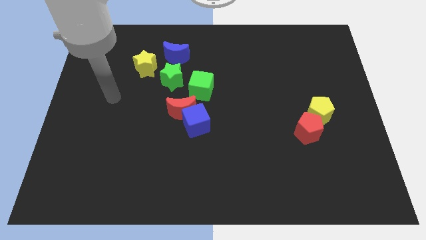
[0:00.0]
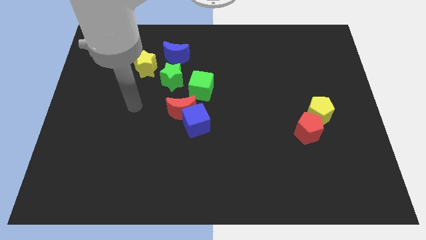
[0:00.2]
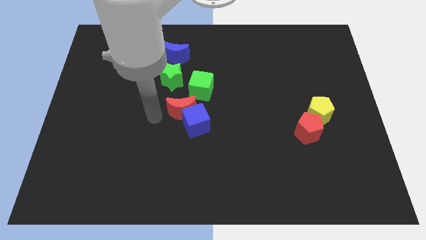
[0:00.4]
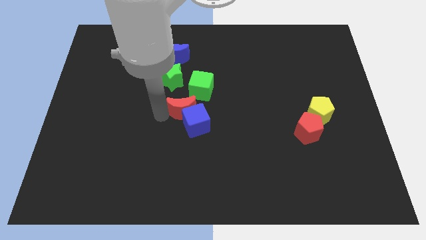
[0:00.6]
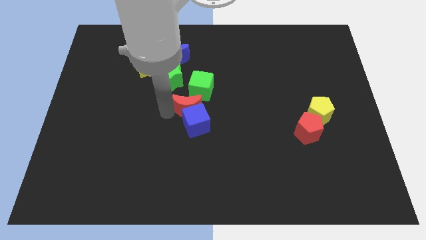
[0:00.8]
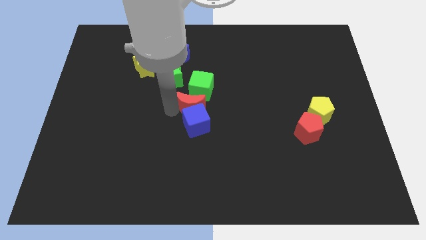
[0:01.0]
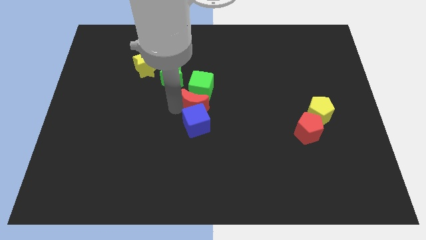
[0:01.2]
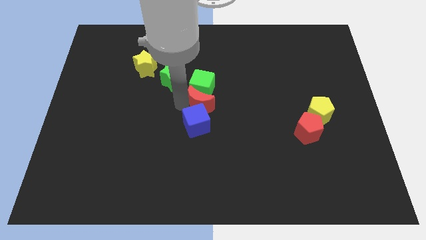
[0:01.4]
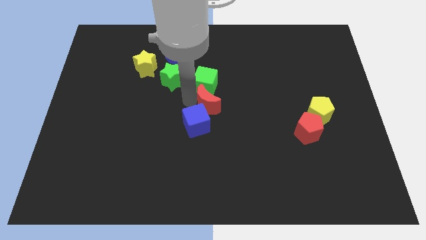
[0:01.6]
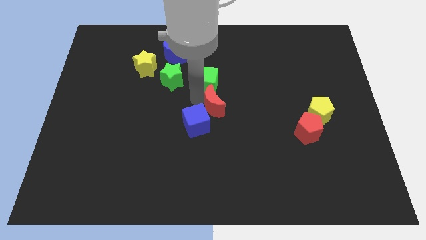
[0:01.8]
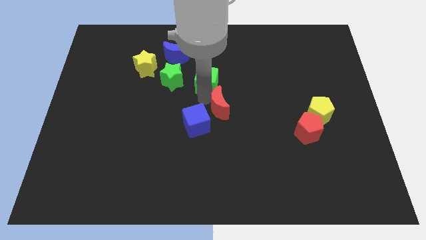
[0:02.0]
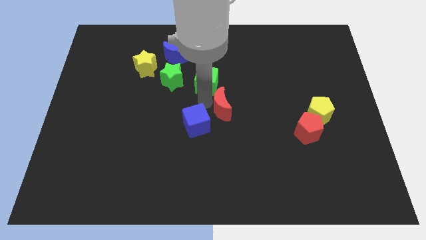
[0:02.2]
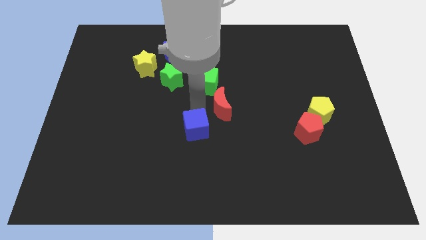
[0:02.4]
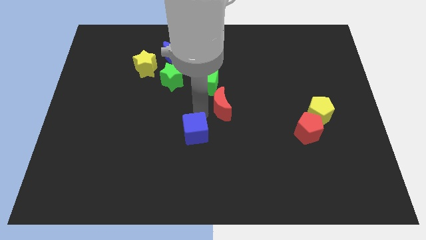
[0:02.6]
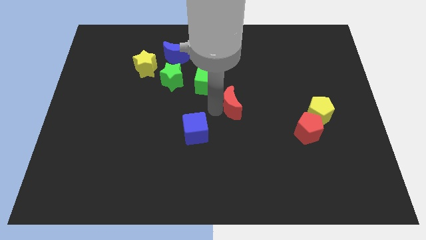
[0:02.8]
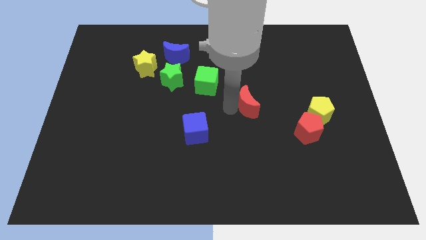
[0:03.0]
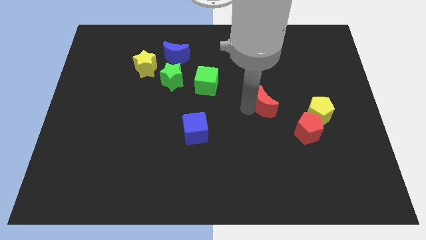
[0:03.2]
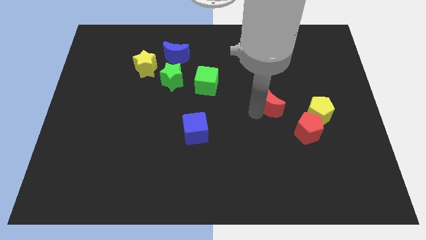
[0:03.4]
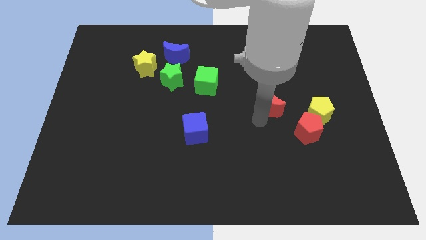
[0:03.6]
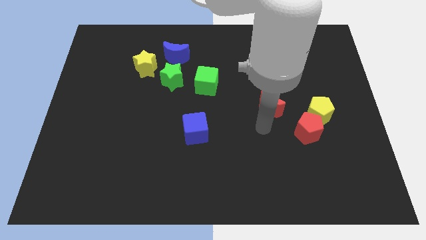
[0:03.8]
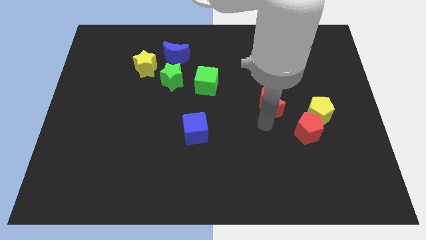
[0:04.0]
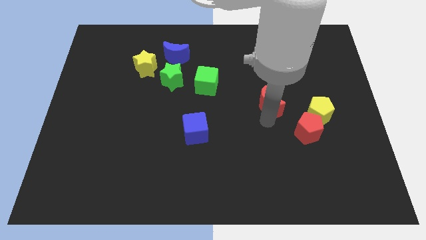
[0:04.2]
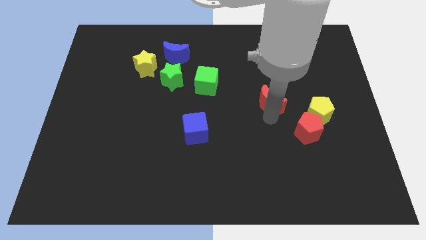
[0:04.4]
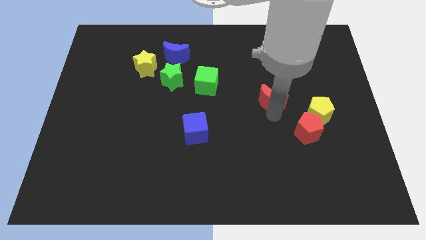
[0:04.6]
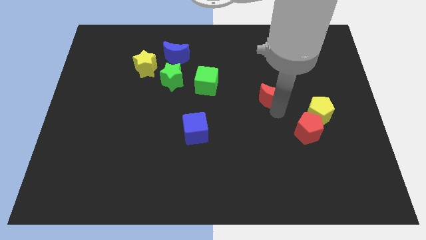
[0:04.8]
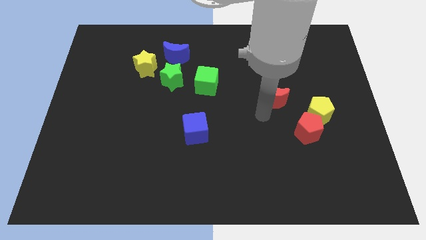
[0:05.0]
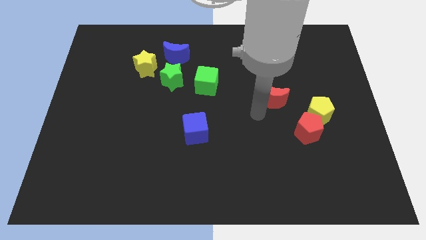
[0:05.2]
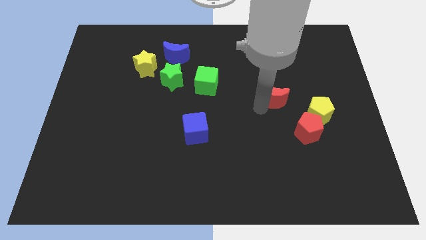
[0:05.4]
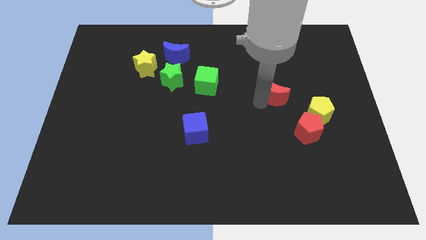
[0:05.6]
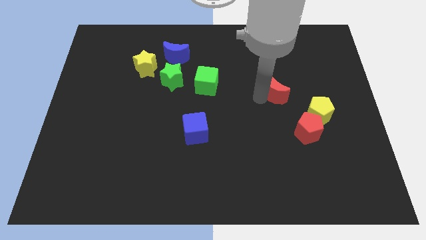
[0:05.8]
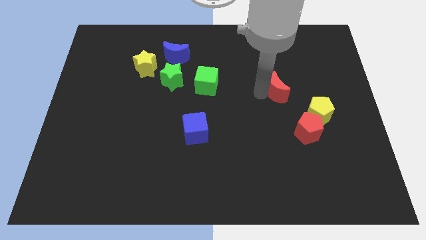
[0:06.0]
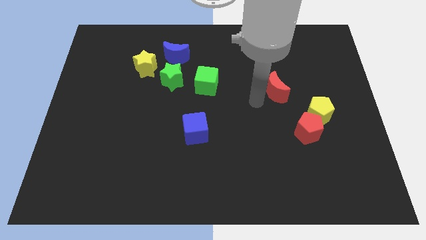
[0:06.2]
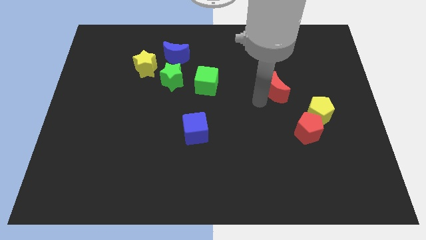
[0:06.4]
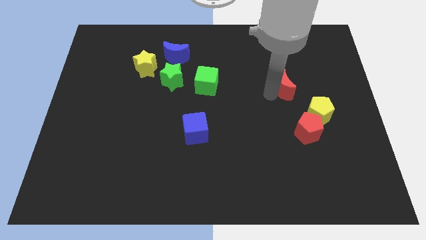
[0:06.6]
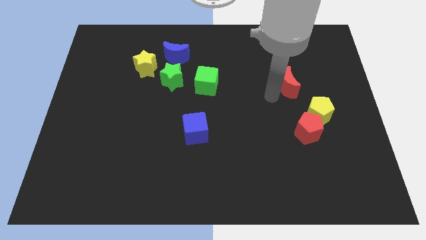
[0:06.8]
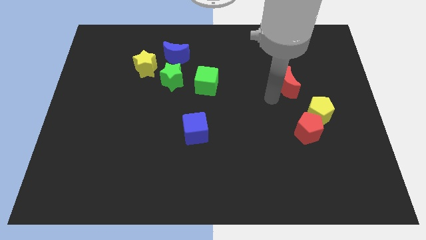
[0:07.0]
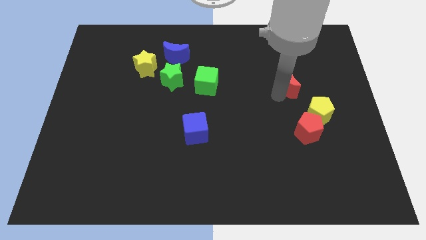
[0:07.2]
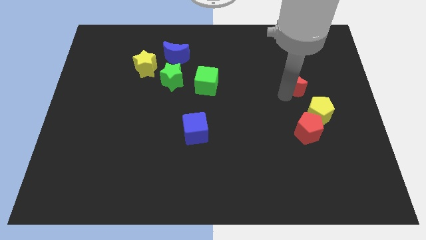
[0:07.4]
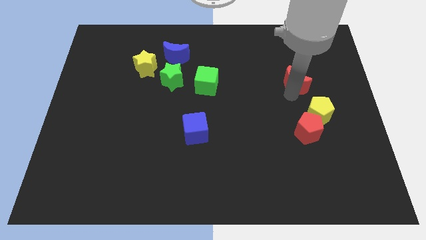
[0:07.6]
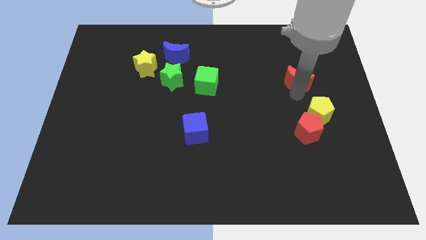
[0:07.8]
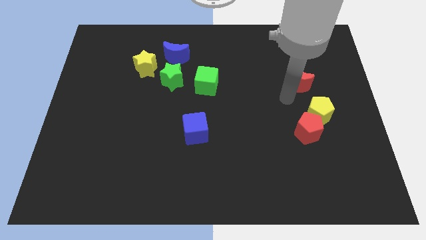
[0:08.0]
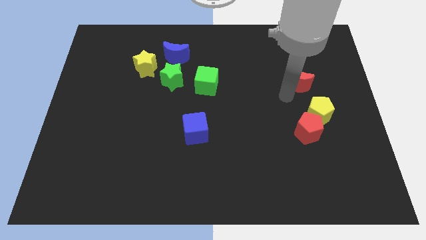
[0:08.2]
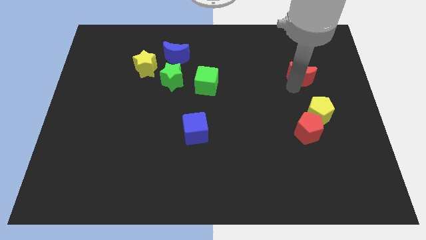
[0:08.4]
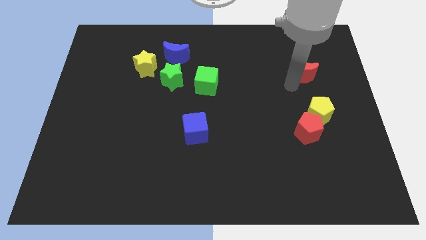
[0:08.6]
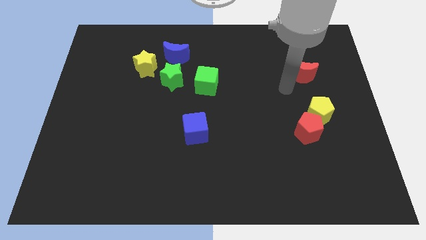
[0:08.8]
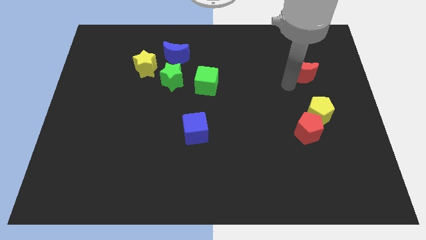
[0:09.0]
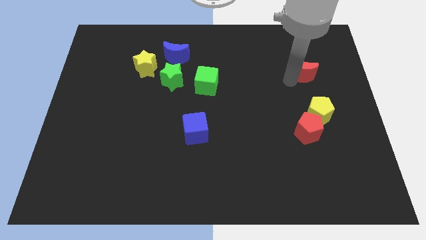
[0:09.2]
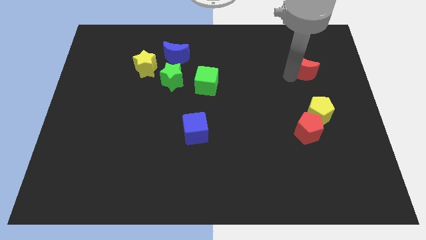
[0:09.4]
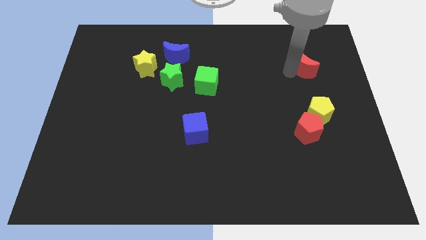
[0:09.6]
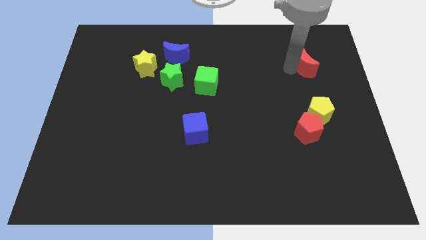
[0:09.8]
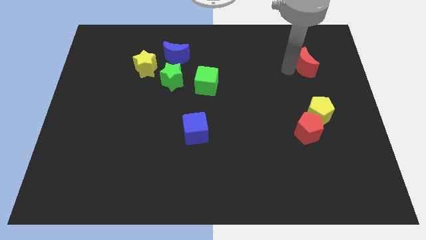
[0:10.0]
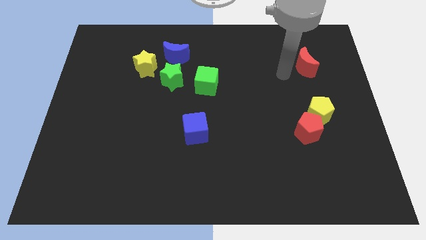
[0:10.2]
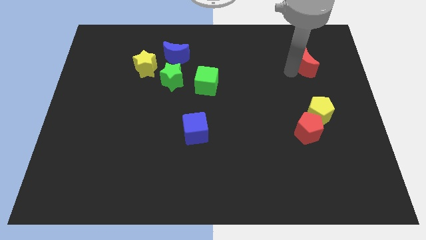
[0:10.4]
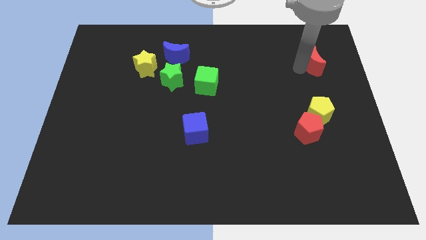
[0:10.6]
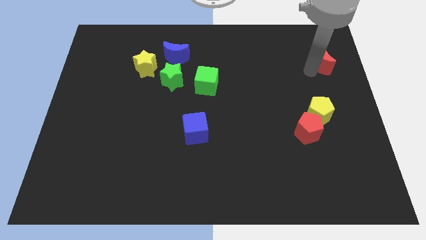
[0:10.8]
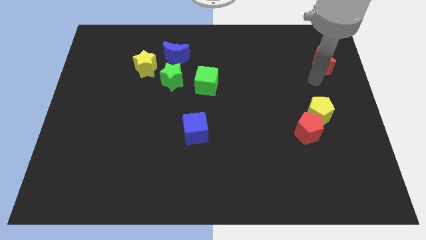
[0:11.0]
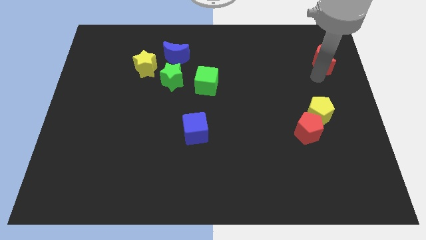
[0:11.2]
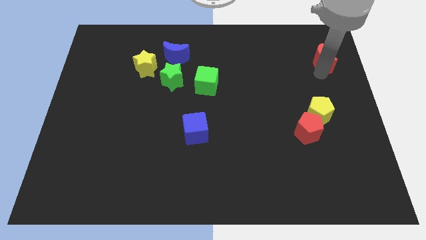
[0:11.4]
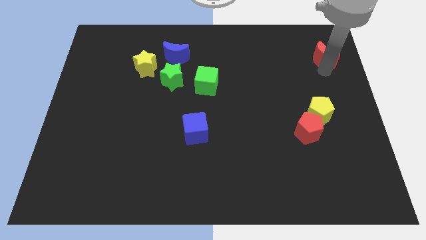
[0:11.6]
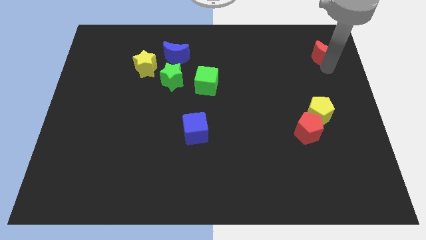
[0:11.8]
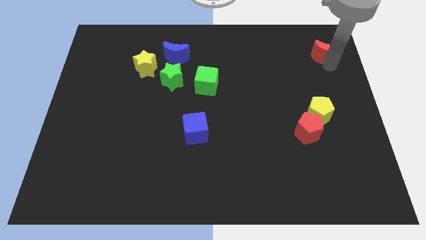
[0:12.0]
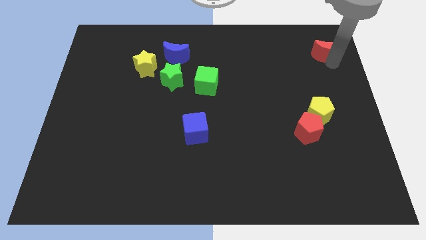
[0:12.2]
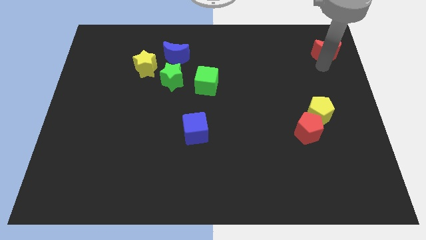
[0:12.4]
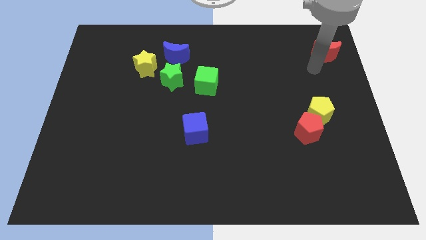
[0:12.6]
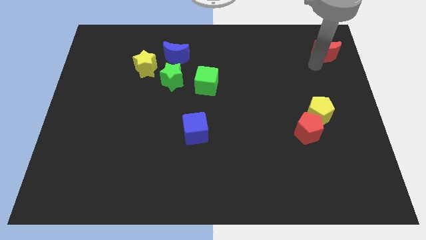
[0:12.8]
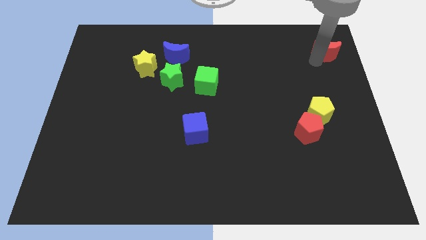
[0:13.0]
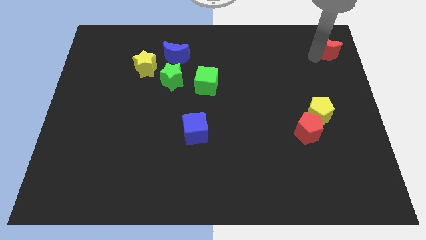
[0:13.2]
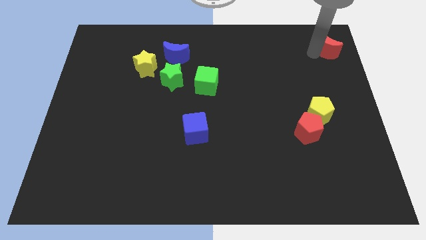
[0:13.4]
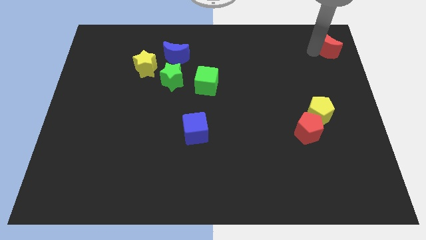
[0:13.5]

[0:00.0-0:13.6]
put the red moon to the top right corner
